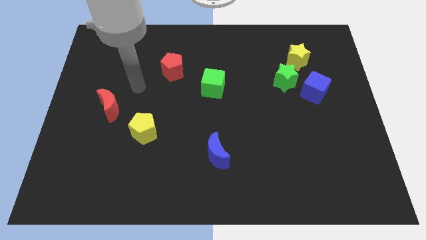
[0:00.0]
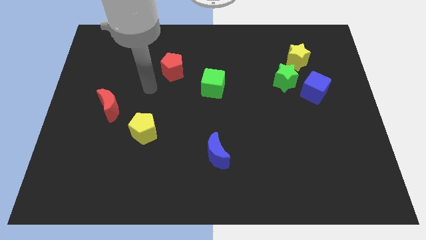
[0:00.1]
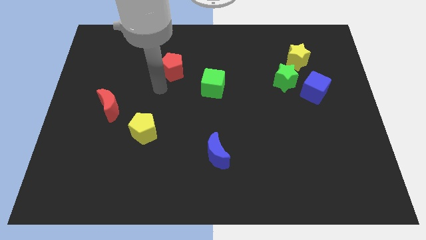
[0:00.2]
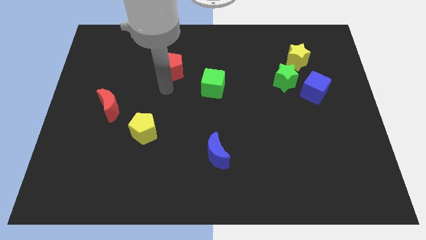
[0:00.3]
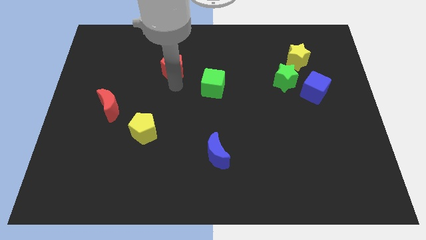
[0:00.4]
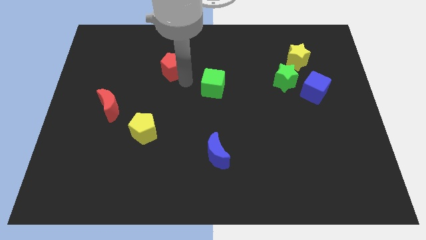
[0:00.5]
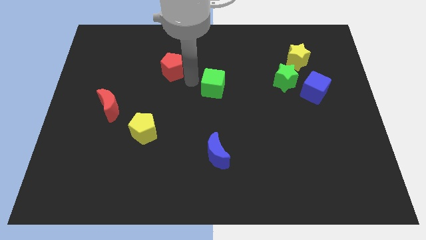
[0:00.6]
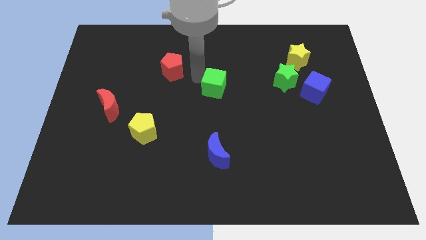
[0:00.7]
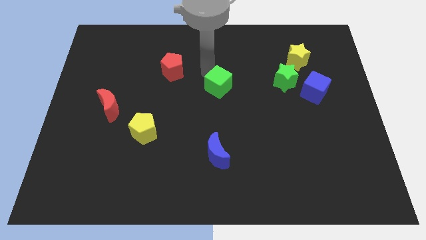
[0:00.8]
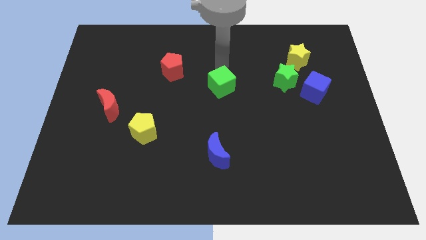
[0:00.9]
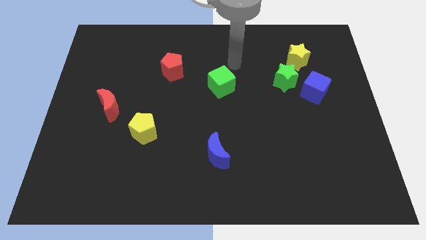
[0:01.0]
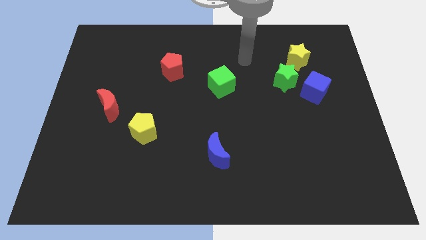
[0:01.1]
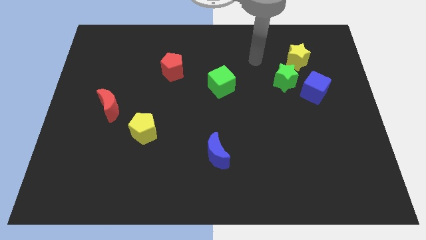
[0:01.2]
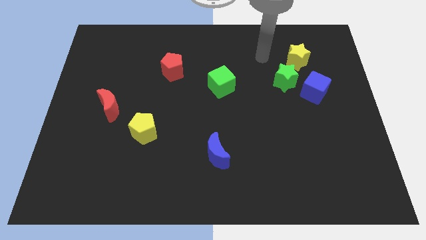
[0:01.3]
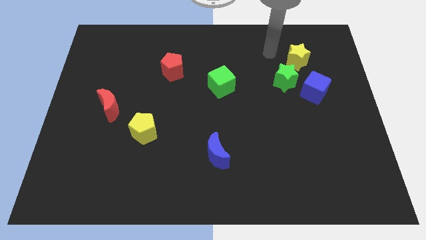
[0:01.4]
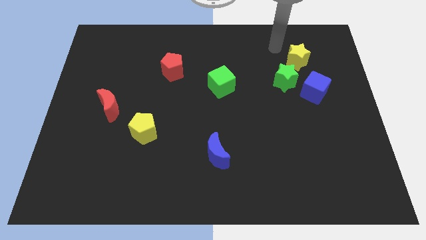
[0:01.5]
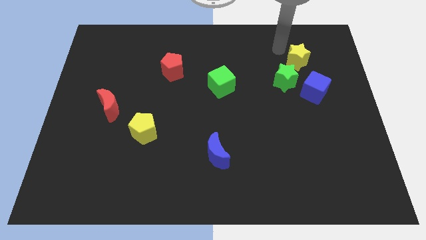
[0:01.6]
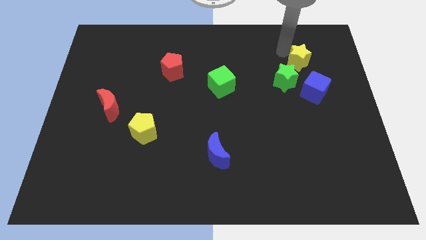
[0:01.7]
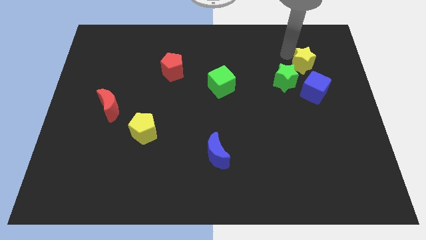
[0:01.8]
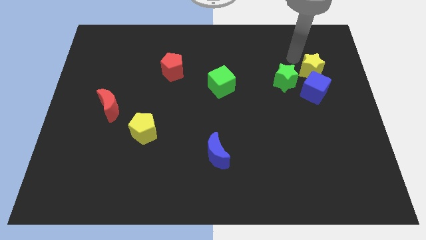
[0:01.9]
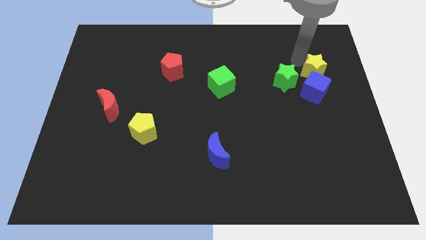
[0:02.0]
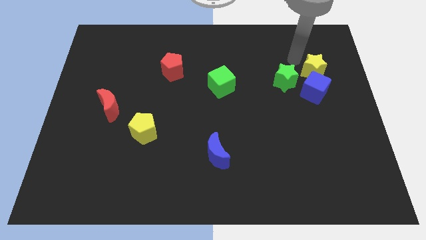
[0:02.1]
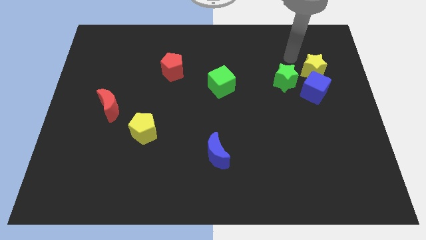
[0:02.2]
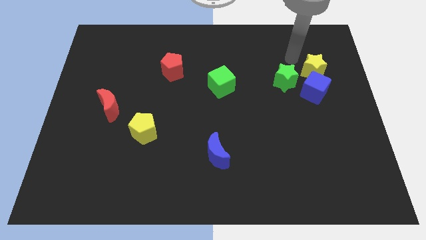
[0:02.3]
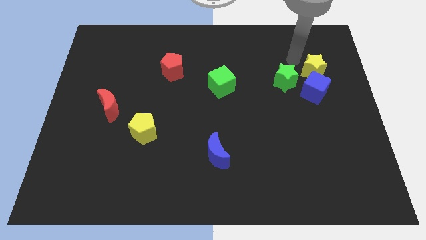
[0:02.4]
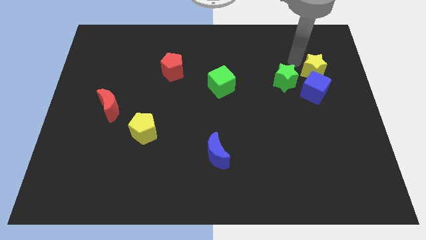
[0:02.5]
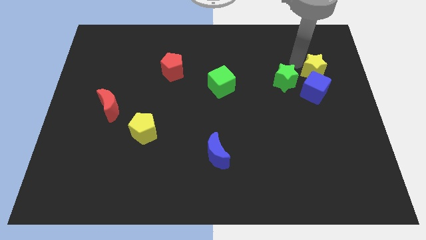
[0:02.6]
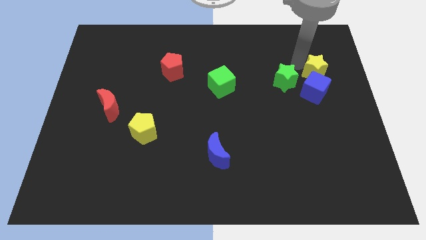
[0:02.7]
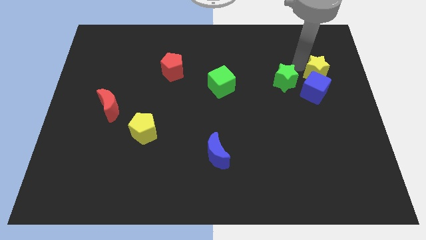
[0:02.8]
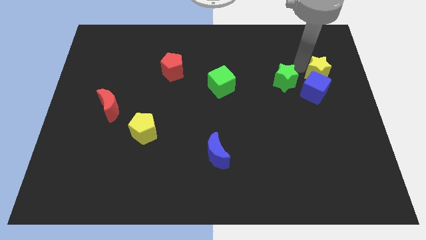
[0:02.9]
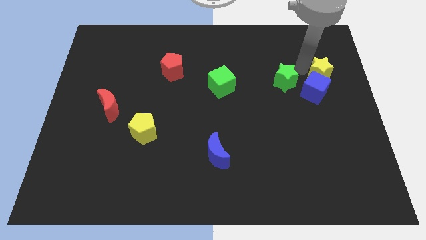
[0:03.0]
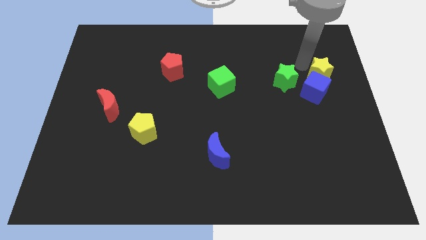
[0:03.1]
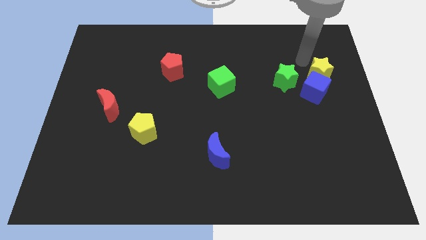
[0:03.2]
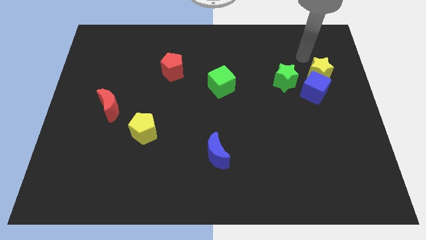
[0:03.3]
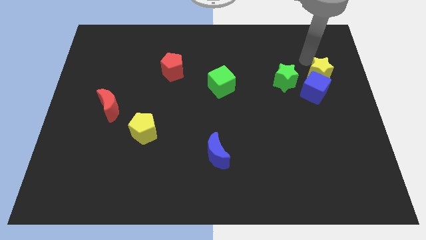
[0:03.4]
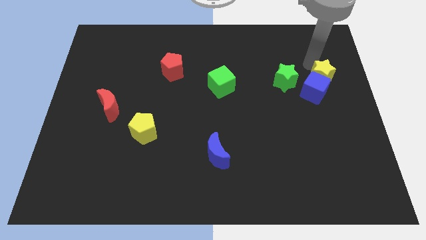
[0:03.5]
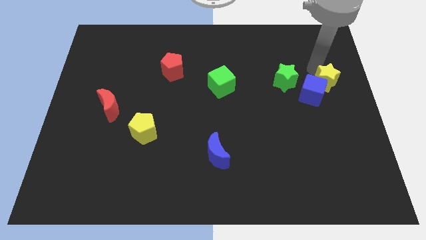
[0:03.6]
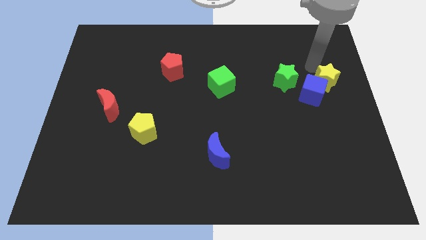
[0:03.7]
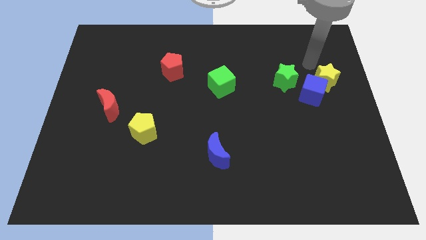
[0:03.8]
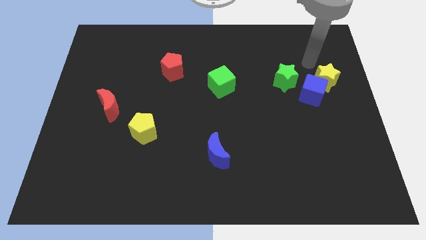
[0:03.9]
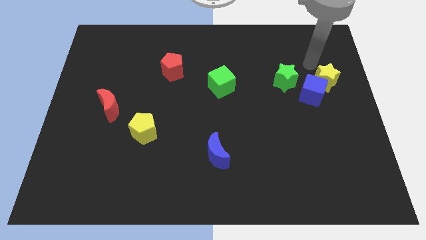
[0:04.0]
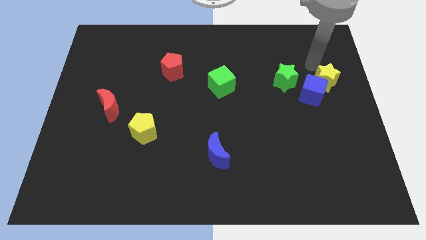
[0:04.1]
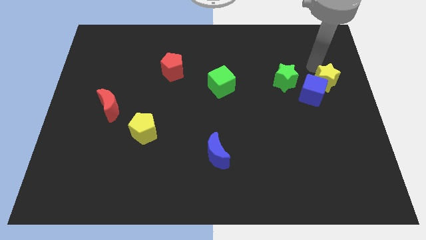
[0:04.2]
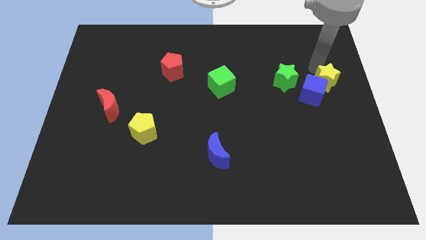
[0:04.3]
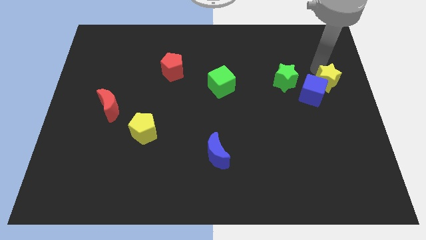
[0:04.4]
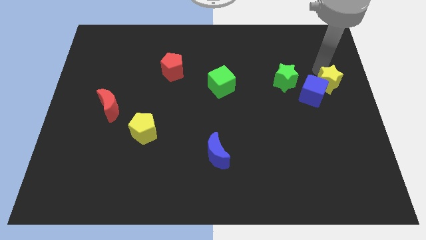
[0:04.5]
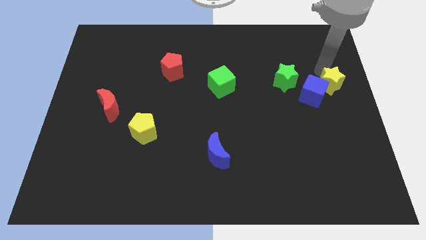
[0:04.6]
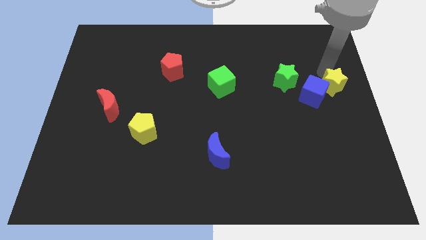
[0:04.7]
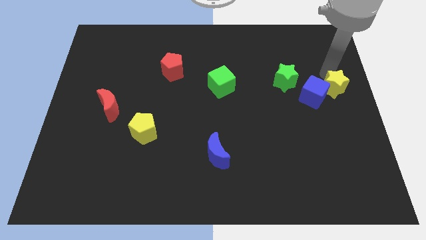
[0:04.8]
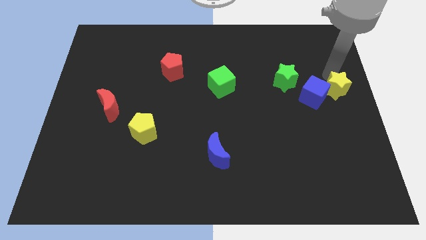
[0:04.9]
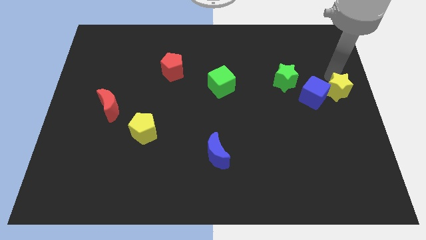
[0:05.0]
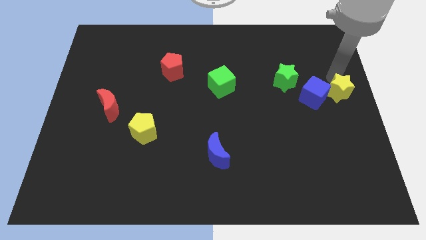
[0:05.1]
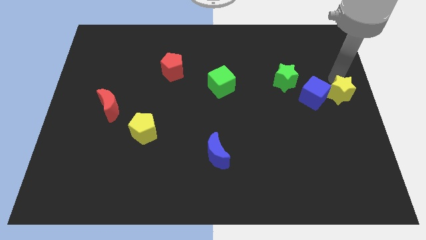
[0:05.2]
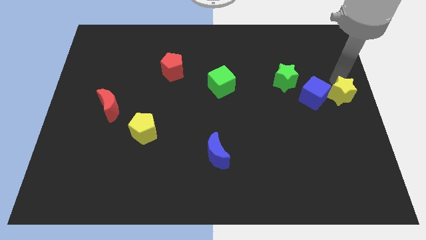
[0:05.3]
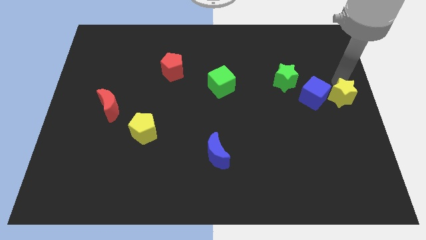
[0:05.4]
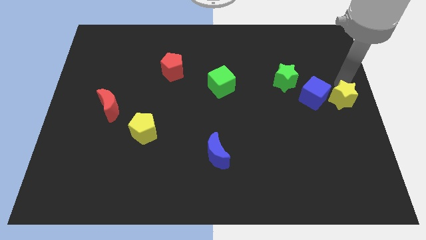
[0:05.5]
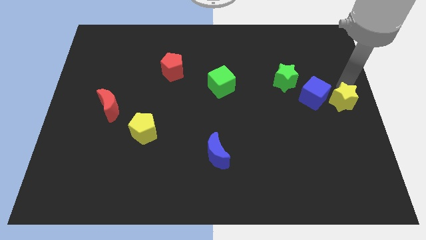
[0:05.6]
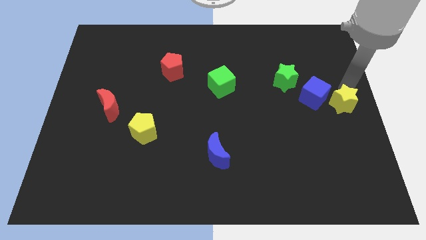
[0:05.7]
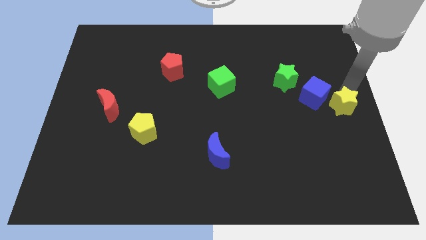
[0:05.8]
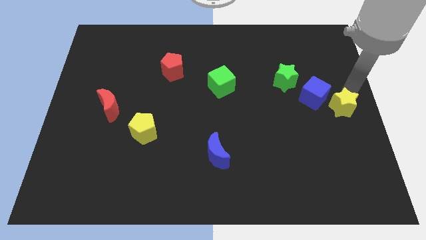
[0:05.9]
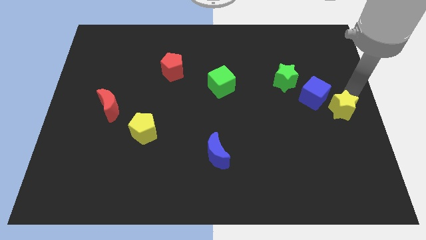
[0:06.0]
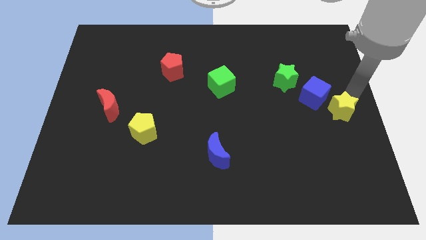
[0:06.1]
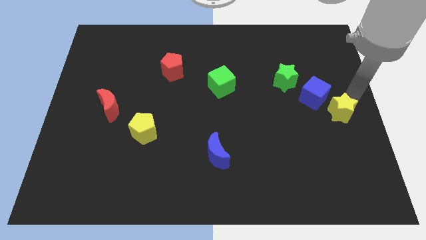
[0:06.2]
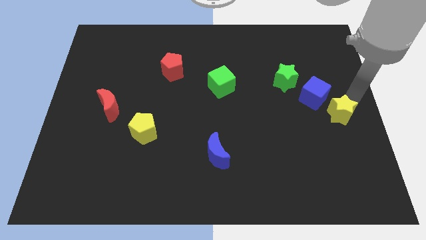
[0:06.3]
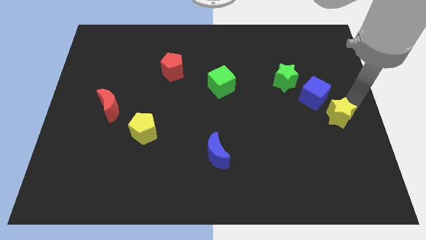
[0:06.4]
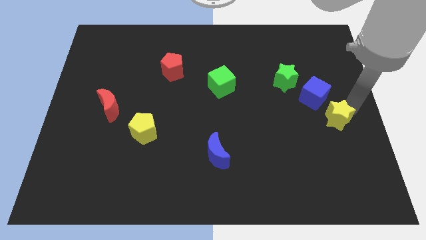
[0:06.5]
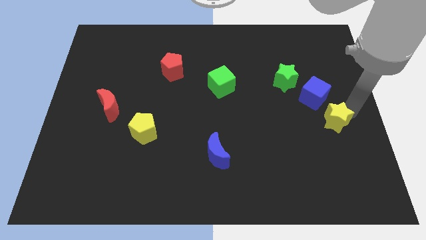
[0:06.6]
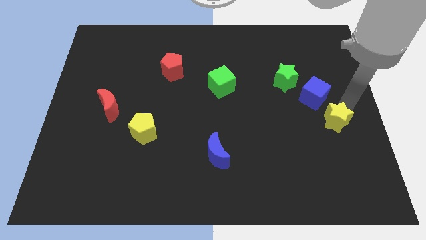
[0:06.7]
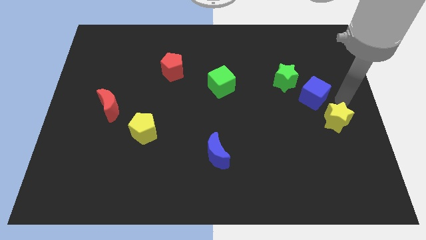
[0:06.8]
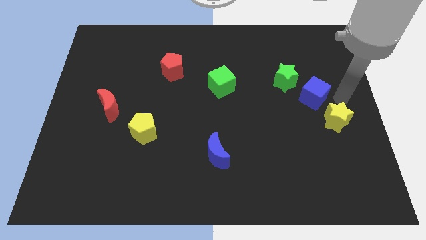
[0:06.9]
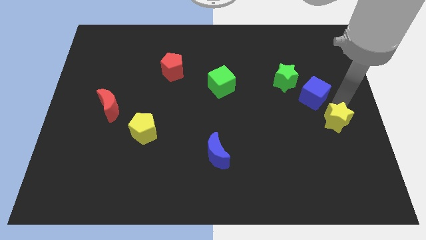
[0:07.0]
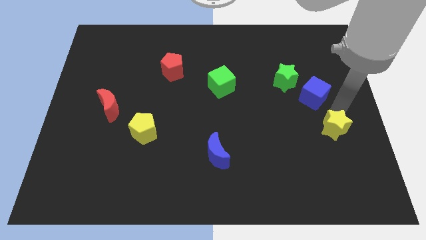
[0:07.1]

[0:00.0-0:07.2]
move the yellow star down

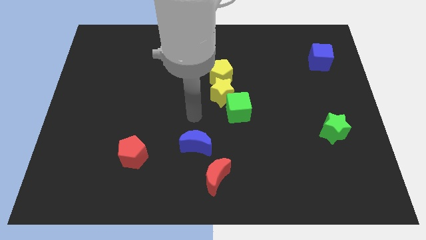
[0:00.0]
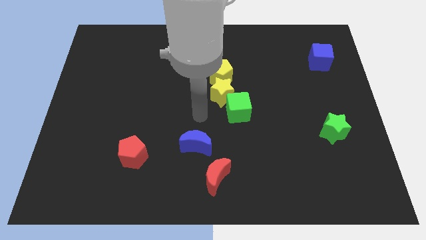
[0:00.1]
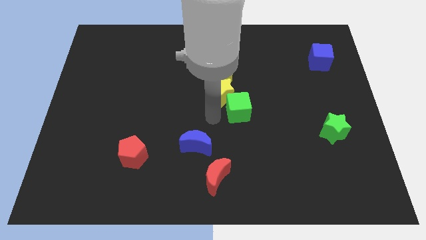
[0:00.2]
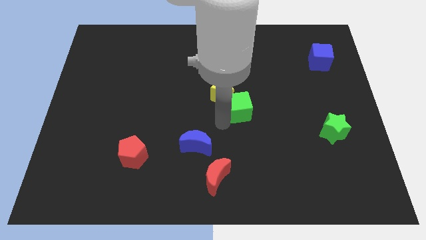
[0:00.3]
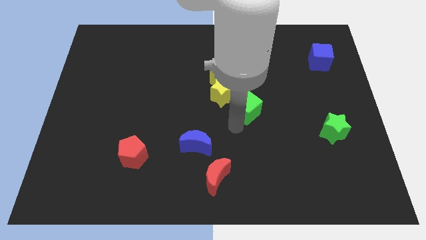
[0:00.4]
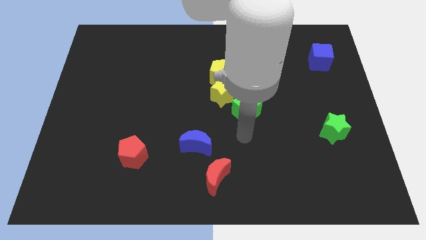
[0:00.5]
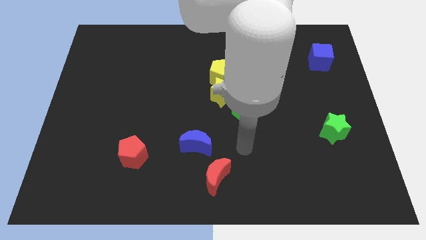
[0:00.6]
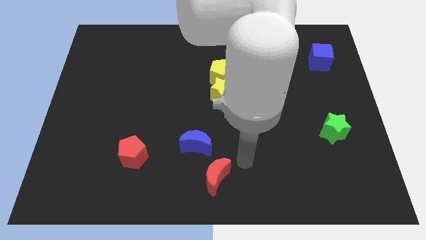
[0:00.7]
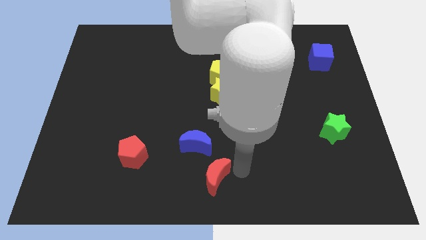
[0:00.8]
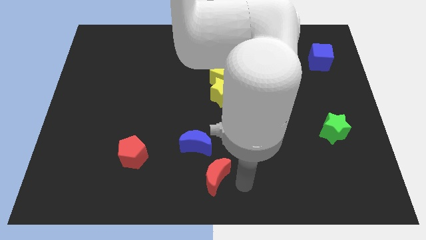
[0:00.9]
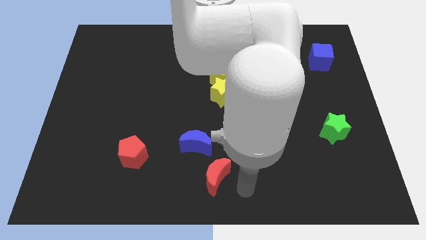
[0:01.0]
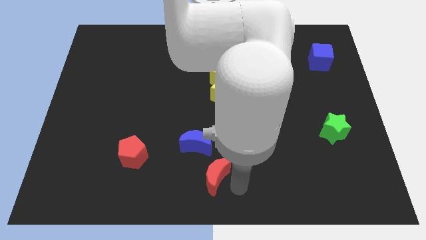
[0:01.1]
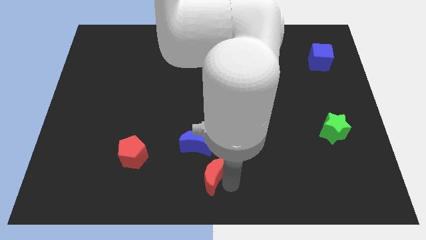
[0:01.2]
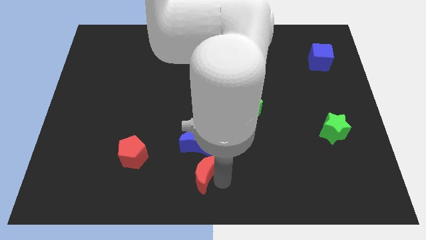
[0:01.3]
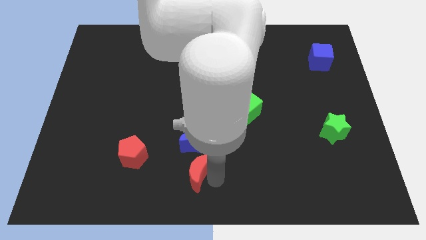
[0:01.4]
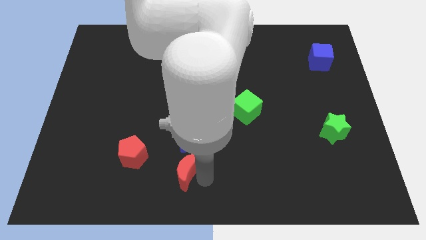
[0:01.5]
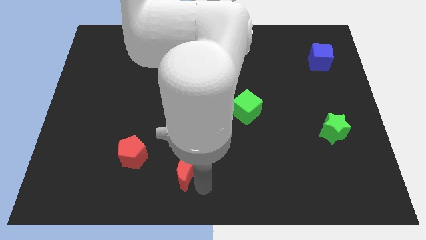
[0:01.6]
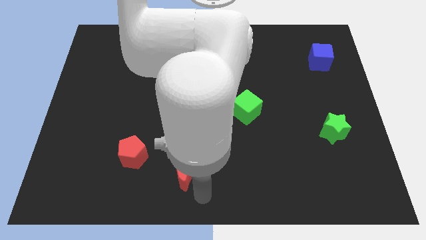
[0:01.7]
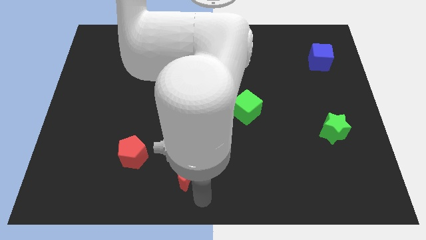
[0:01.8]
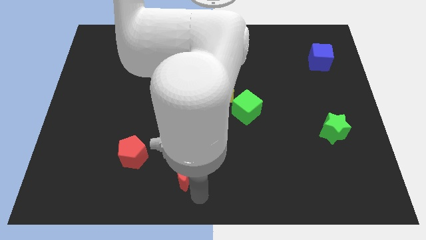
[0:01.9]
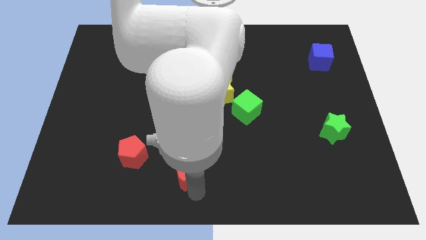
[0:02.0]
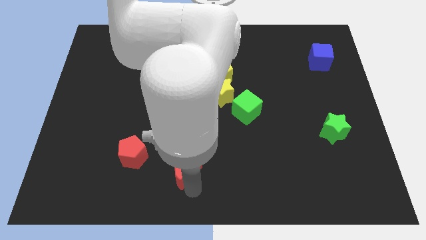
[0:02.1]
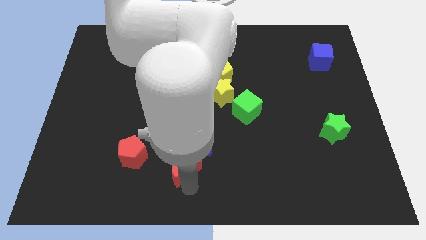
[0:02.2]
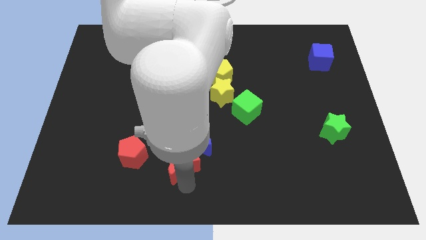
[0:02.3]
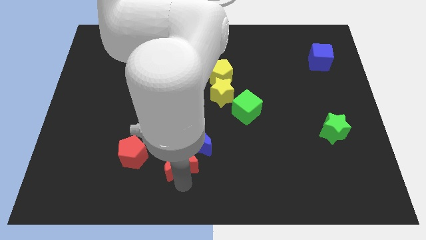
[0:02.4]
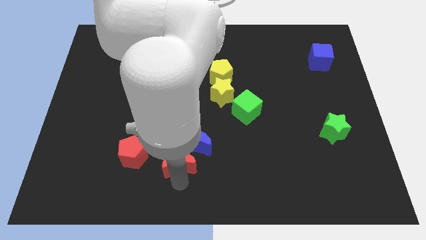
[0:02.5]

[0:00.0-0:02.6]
push the red moon up and then left somewhat
